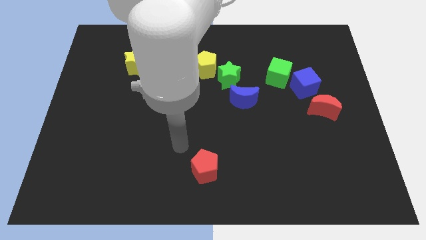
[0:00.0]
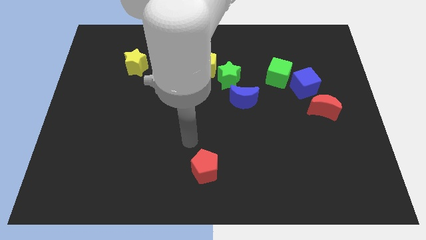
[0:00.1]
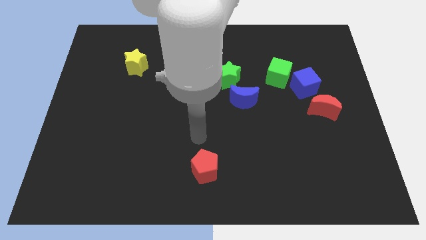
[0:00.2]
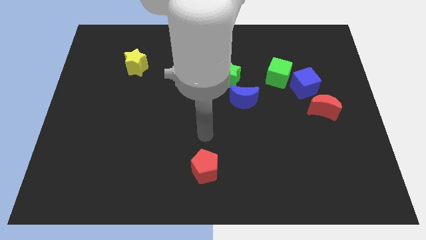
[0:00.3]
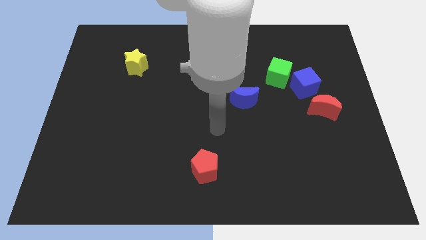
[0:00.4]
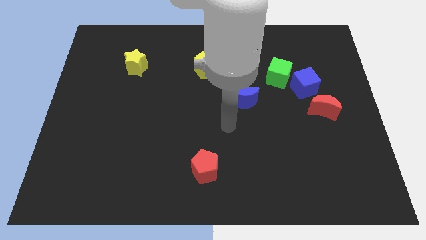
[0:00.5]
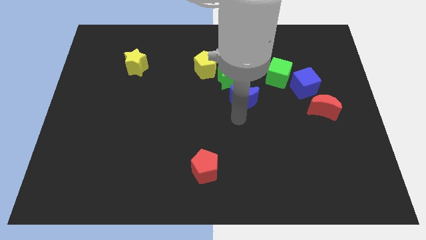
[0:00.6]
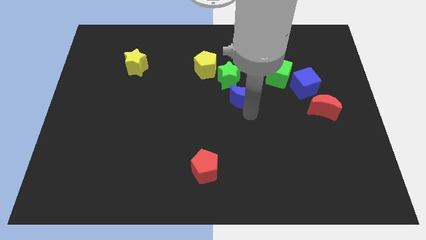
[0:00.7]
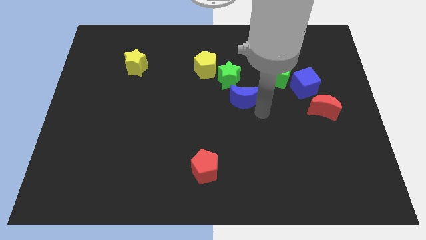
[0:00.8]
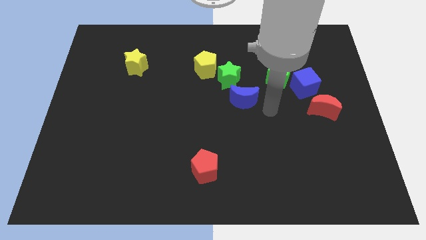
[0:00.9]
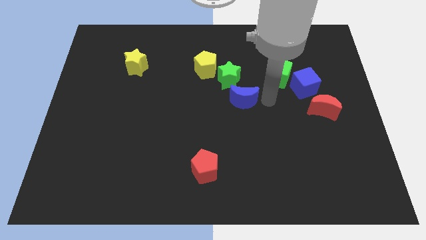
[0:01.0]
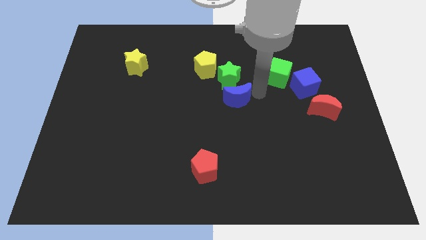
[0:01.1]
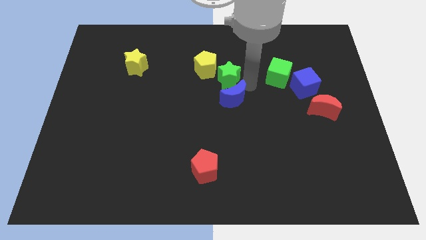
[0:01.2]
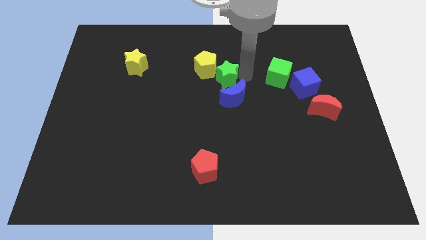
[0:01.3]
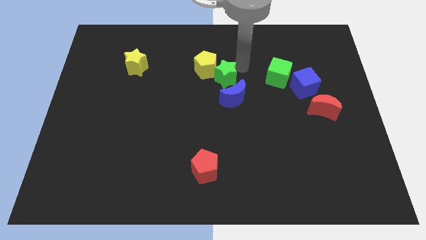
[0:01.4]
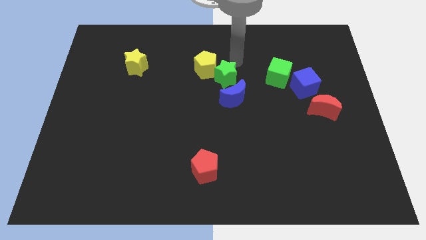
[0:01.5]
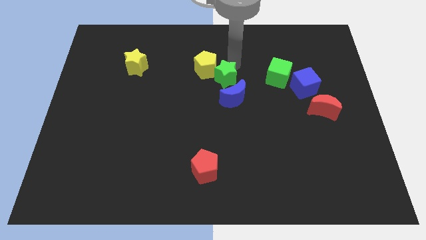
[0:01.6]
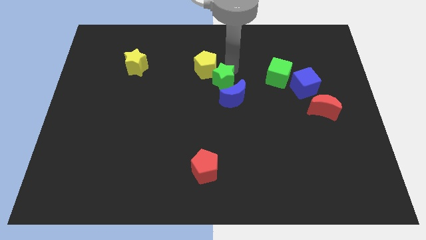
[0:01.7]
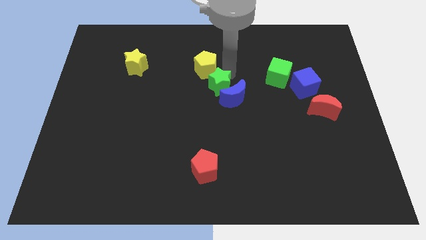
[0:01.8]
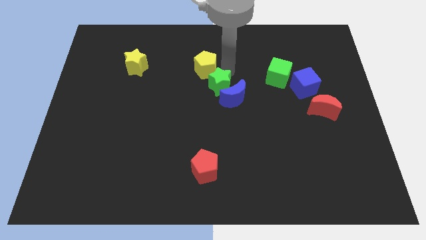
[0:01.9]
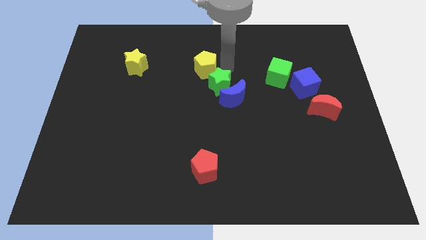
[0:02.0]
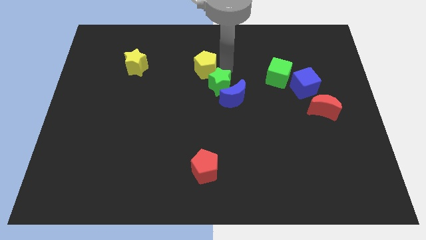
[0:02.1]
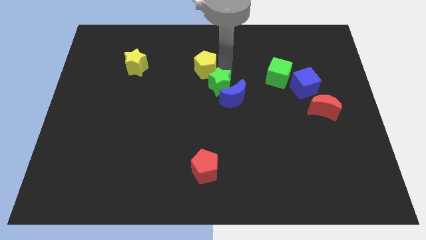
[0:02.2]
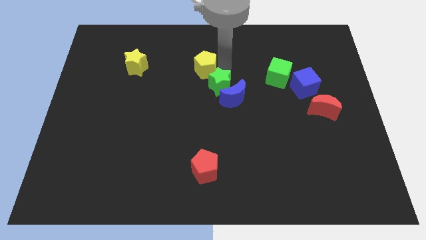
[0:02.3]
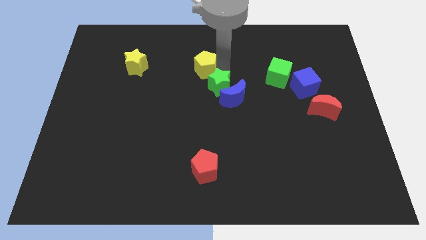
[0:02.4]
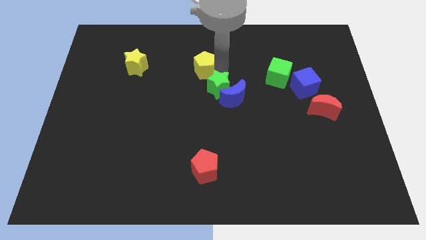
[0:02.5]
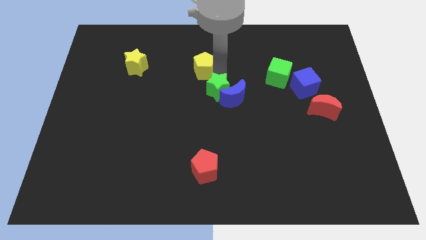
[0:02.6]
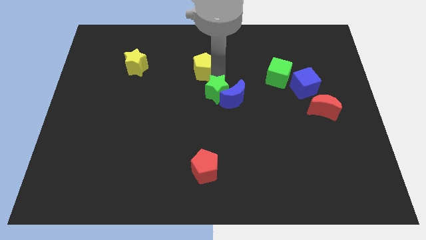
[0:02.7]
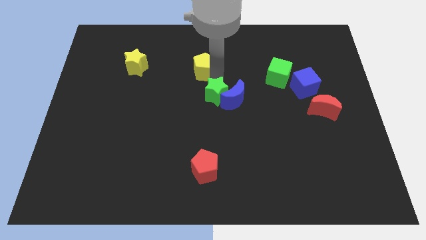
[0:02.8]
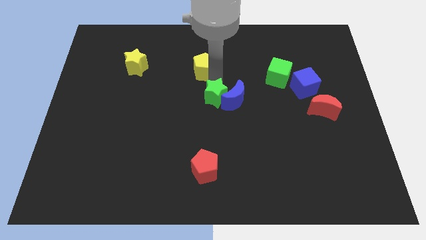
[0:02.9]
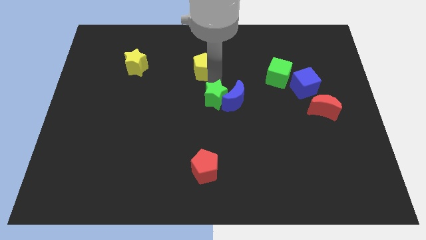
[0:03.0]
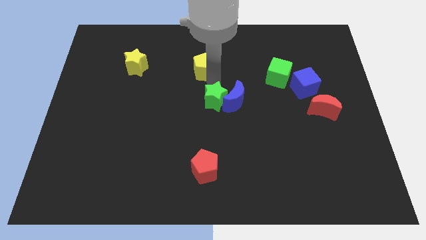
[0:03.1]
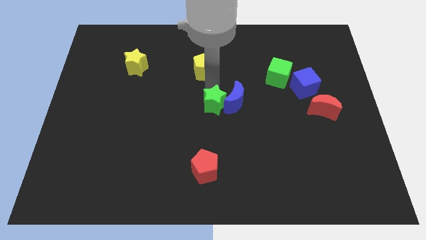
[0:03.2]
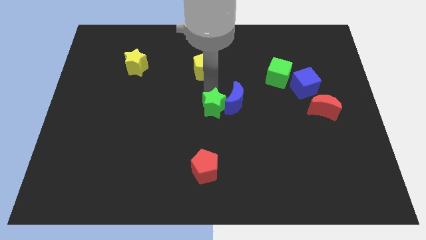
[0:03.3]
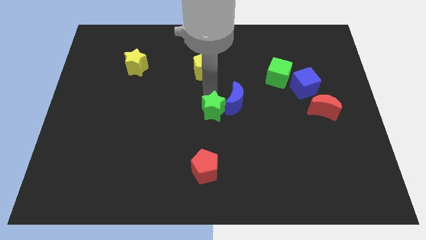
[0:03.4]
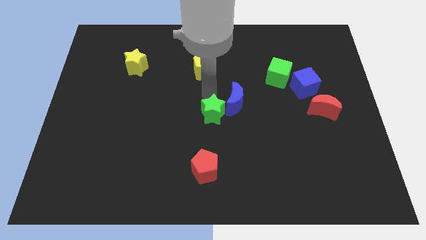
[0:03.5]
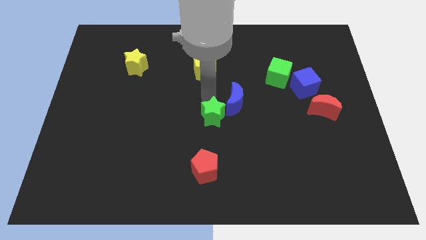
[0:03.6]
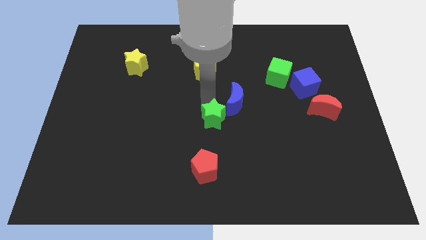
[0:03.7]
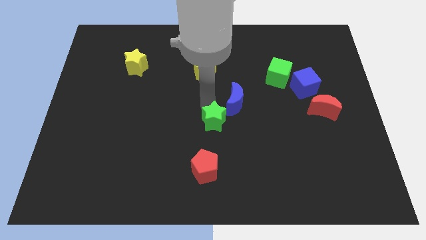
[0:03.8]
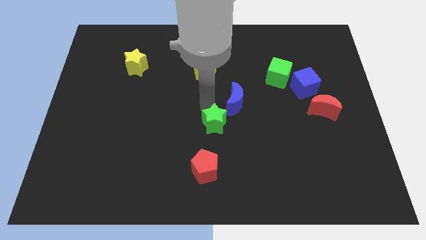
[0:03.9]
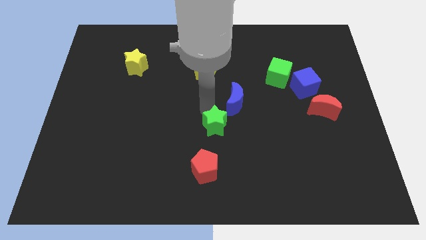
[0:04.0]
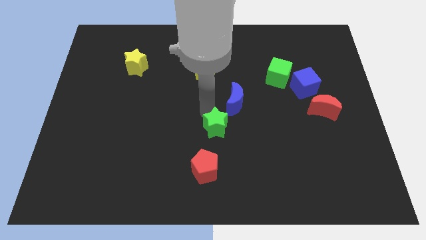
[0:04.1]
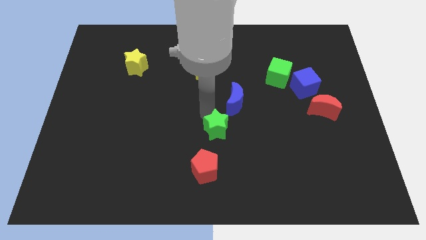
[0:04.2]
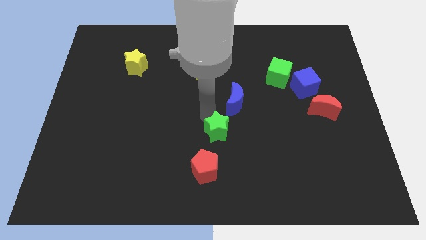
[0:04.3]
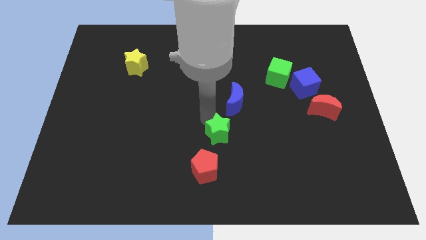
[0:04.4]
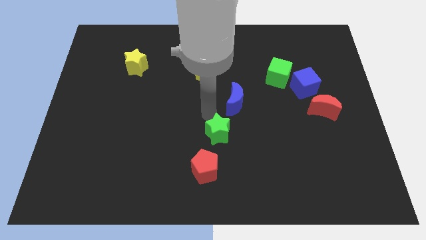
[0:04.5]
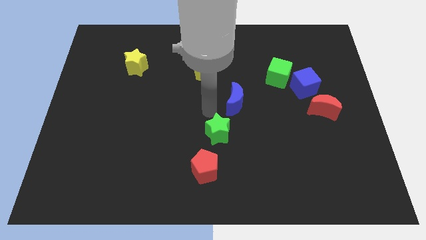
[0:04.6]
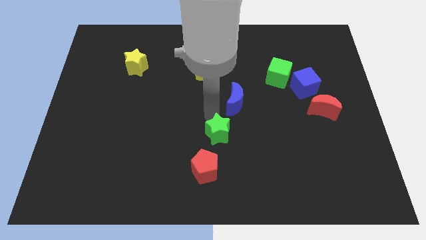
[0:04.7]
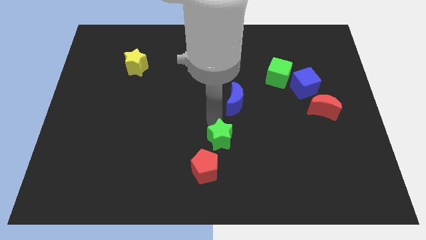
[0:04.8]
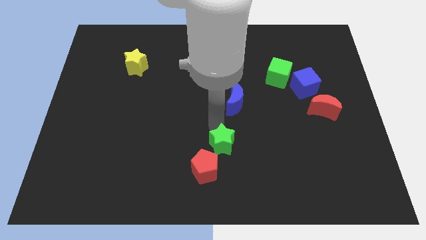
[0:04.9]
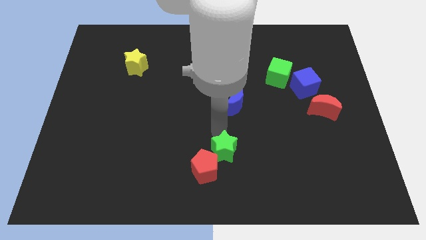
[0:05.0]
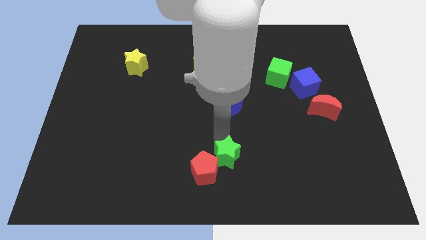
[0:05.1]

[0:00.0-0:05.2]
move the green star to the bottom side
